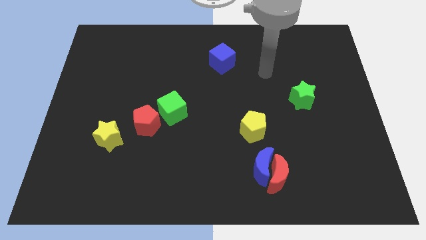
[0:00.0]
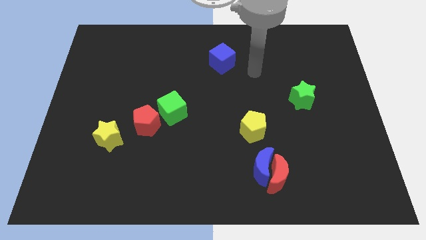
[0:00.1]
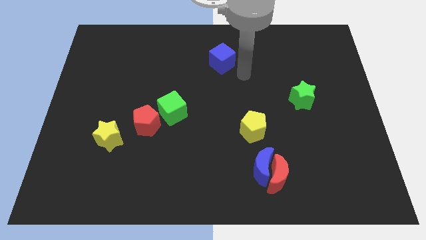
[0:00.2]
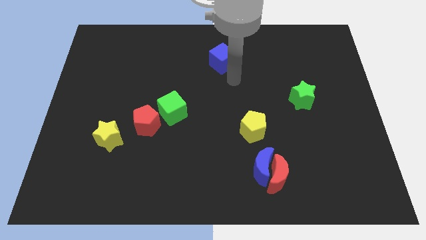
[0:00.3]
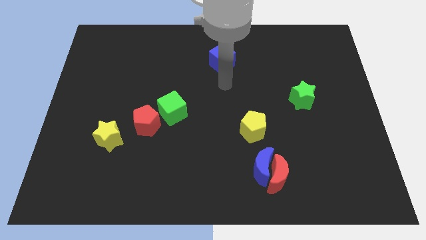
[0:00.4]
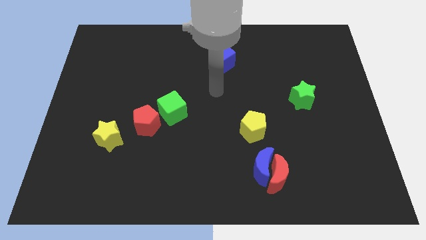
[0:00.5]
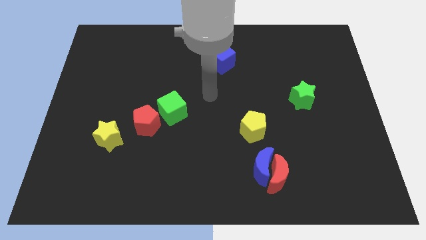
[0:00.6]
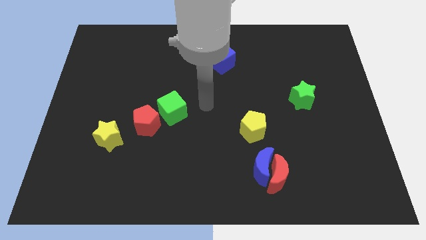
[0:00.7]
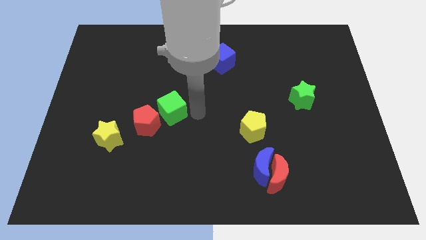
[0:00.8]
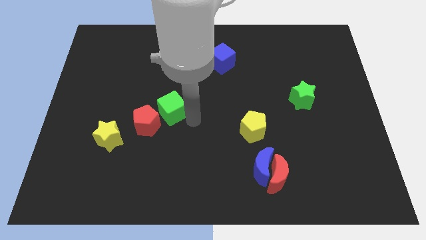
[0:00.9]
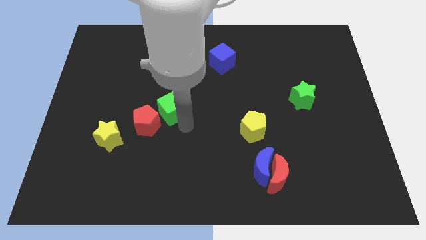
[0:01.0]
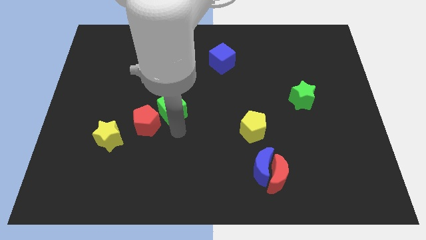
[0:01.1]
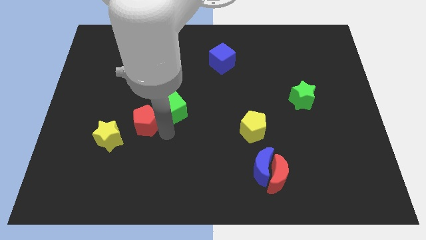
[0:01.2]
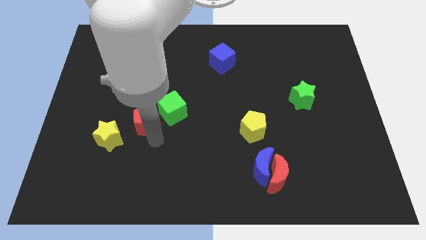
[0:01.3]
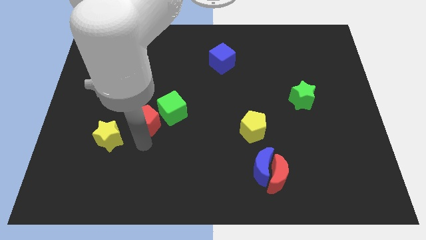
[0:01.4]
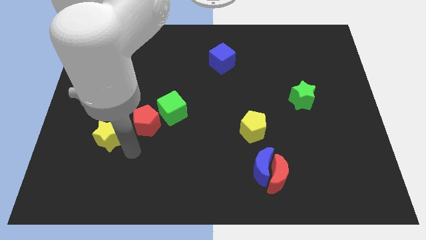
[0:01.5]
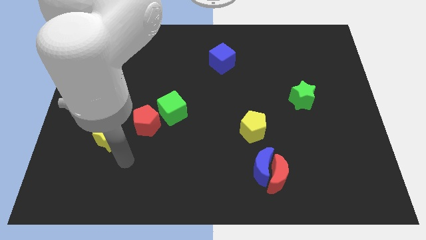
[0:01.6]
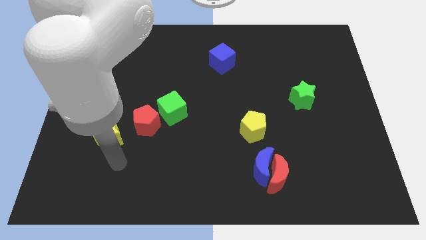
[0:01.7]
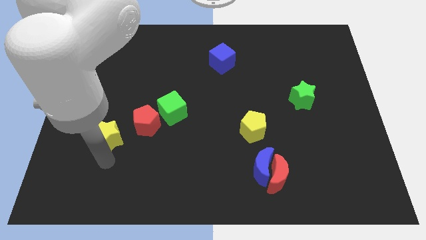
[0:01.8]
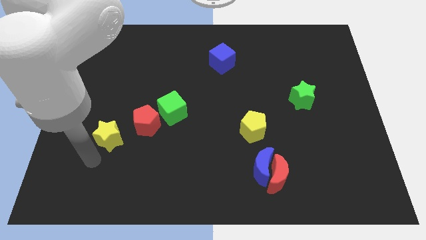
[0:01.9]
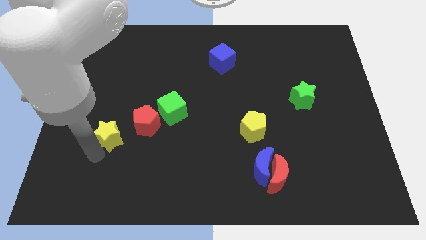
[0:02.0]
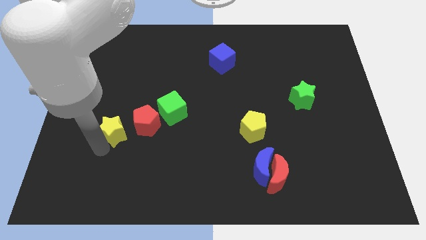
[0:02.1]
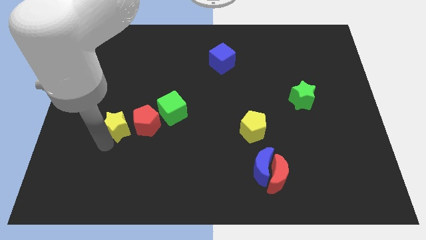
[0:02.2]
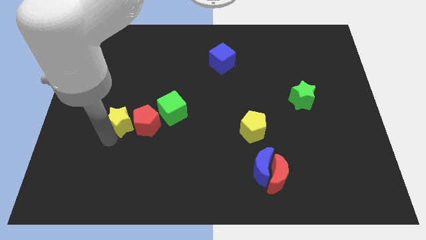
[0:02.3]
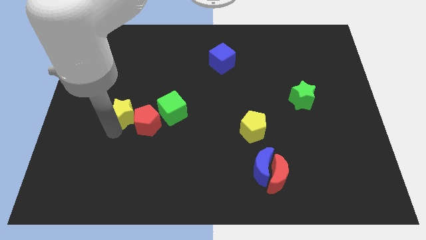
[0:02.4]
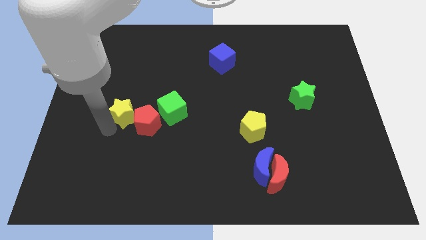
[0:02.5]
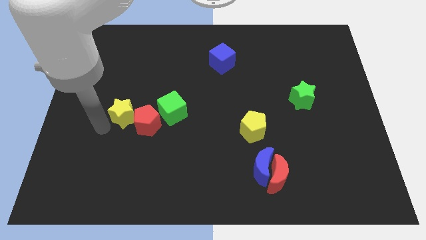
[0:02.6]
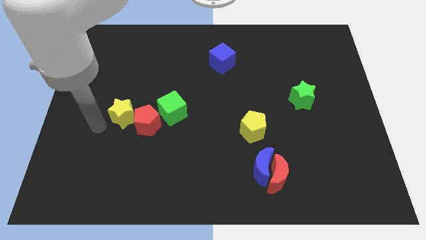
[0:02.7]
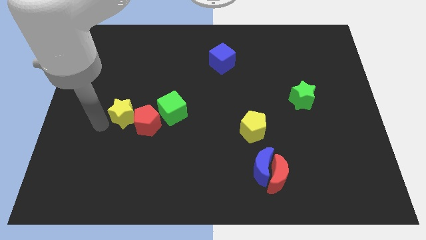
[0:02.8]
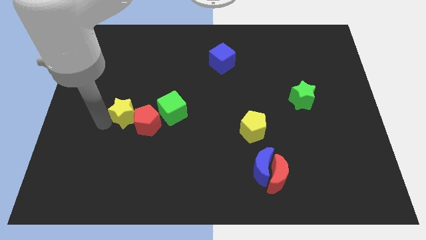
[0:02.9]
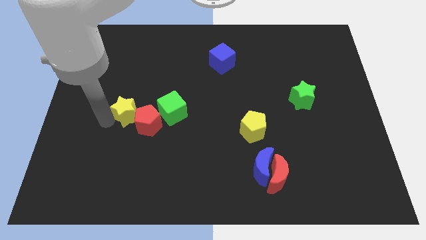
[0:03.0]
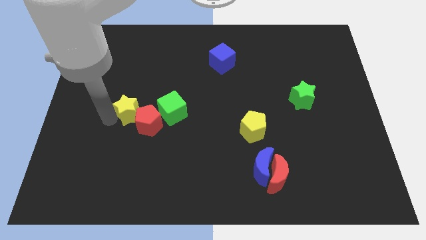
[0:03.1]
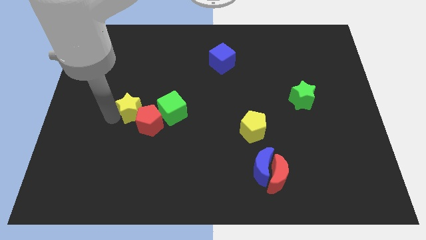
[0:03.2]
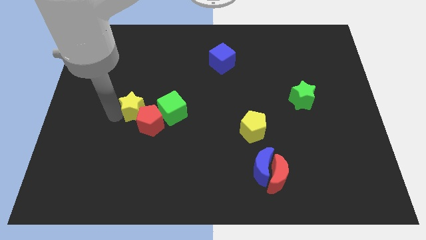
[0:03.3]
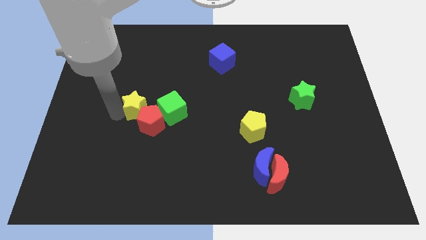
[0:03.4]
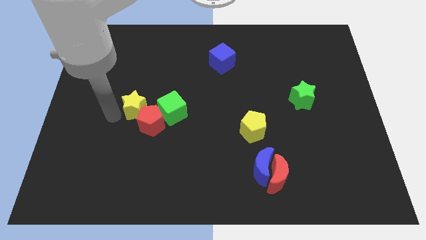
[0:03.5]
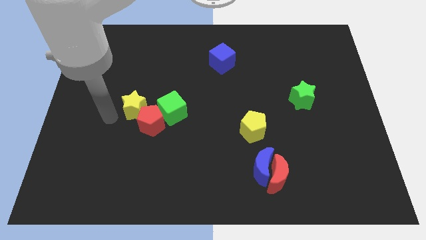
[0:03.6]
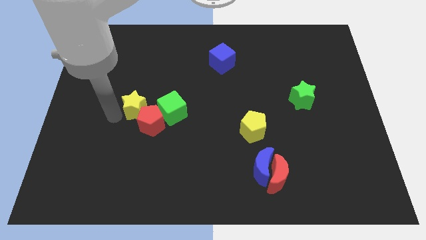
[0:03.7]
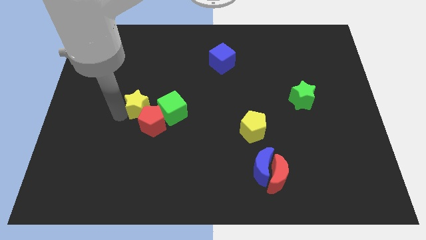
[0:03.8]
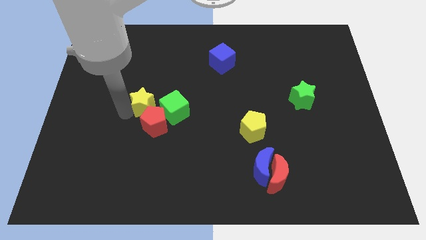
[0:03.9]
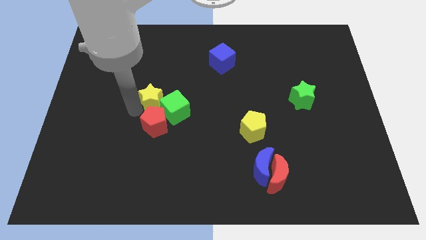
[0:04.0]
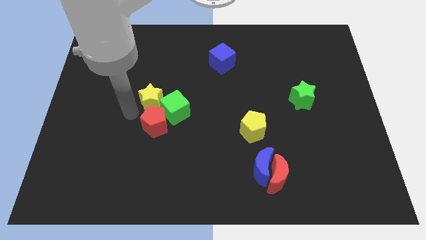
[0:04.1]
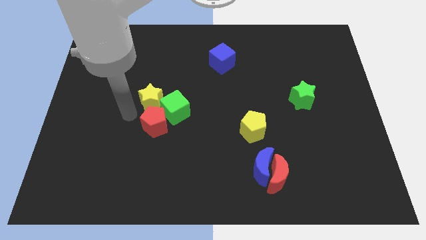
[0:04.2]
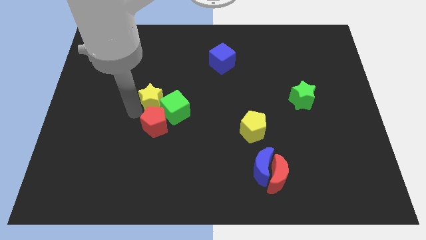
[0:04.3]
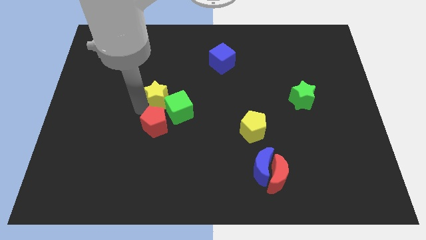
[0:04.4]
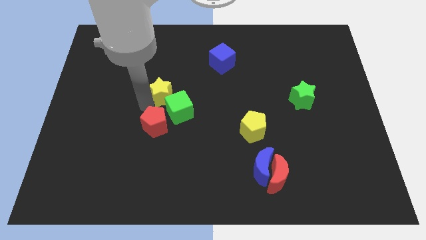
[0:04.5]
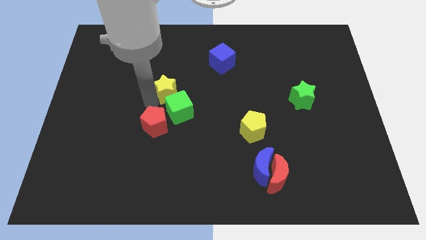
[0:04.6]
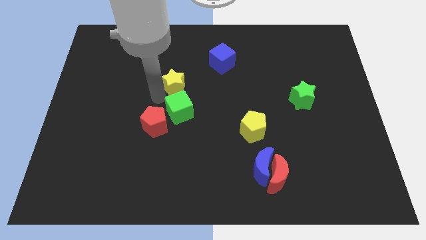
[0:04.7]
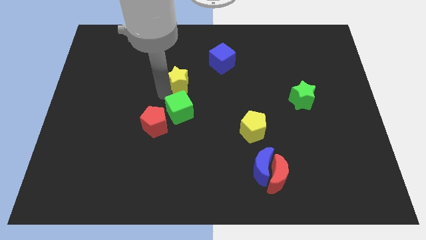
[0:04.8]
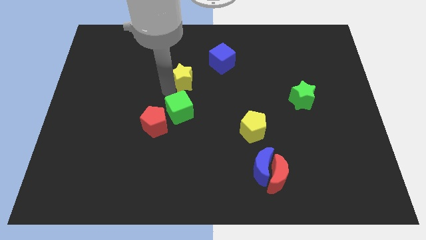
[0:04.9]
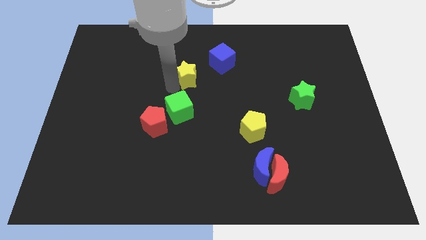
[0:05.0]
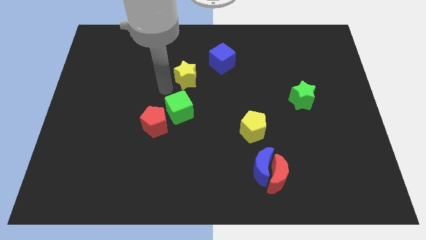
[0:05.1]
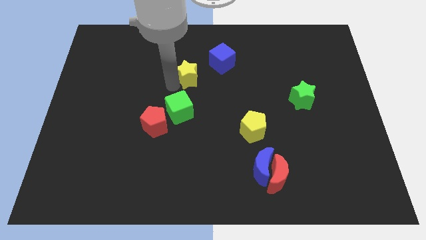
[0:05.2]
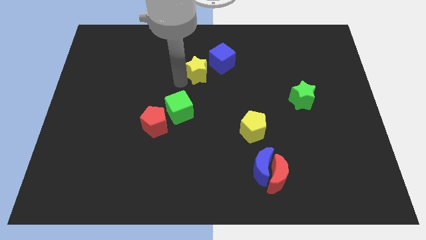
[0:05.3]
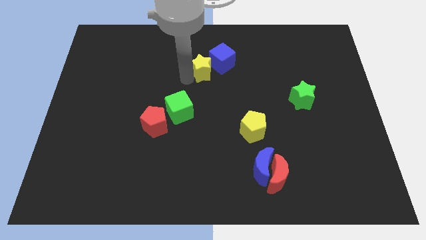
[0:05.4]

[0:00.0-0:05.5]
slide the yellow star towards the blue cube

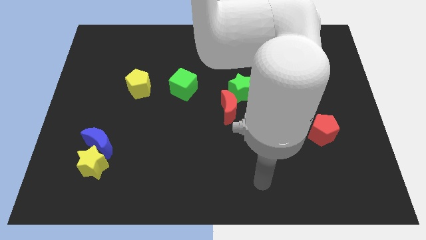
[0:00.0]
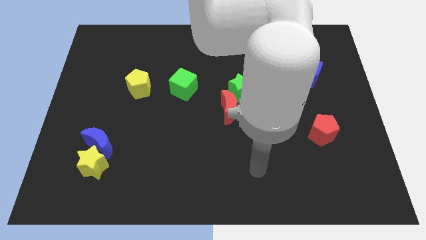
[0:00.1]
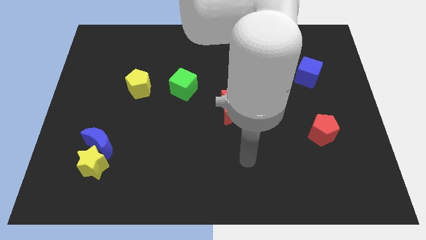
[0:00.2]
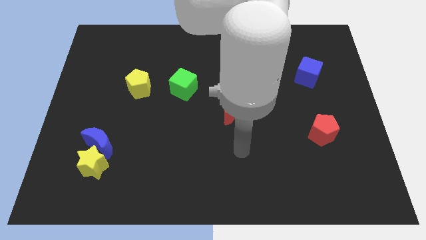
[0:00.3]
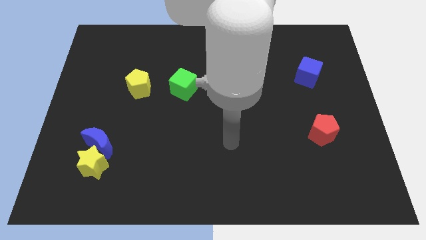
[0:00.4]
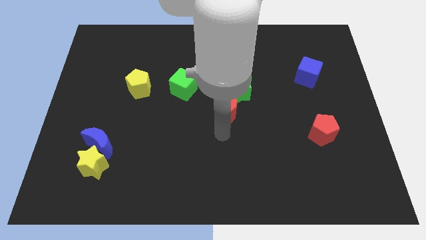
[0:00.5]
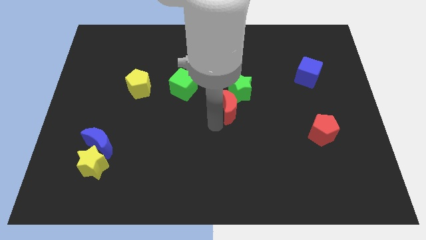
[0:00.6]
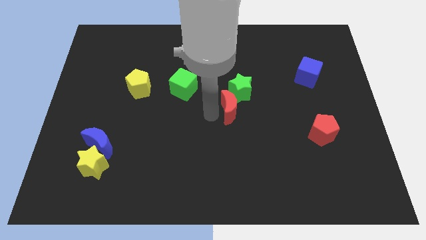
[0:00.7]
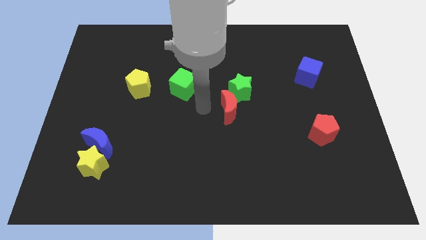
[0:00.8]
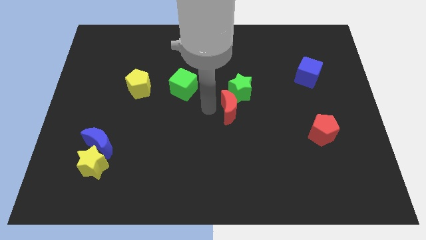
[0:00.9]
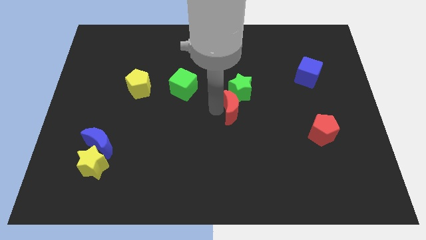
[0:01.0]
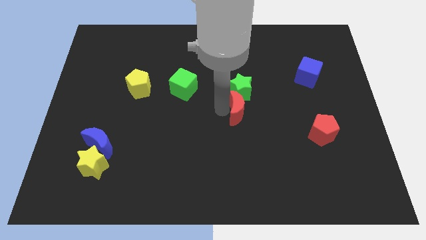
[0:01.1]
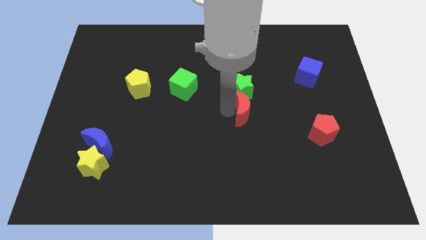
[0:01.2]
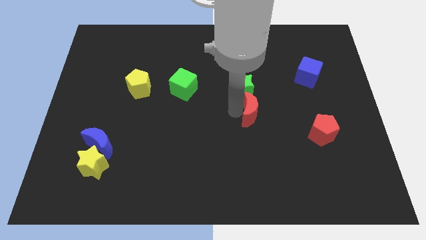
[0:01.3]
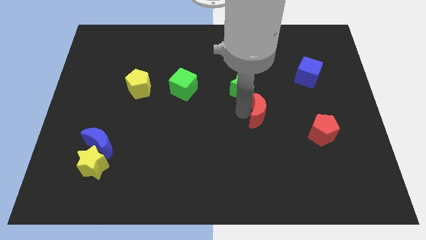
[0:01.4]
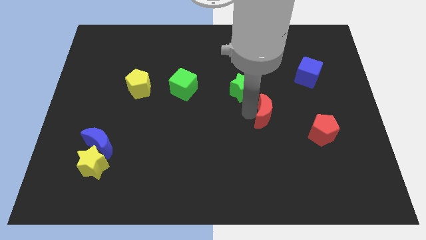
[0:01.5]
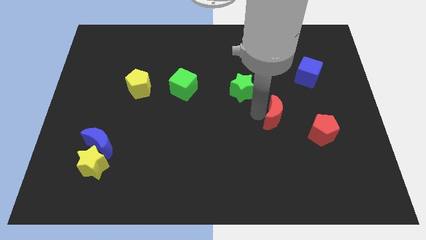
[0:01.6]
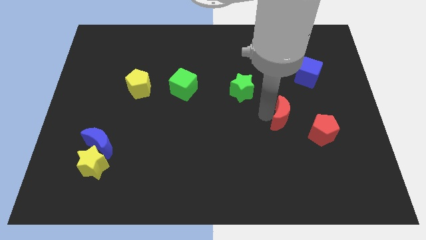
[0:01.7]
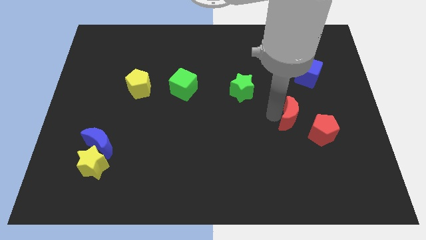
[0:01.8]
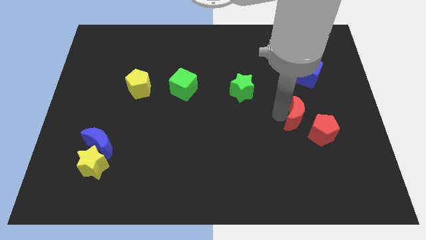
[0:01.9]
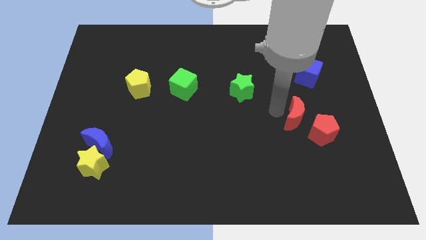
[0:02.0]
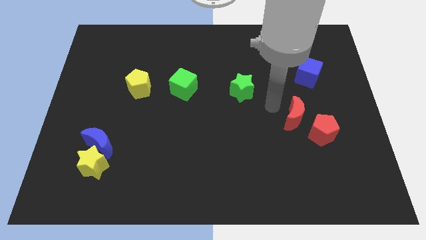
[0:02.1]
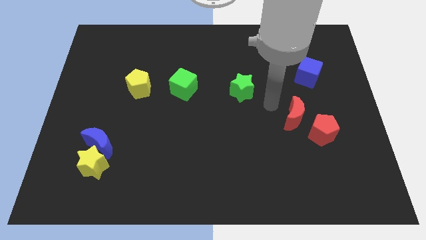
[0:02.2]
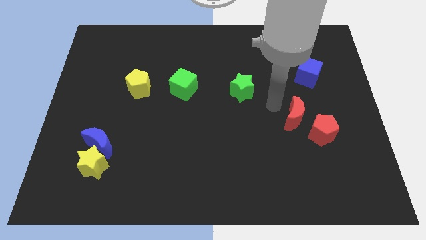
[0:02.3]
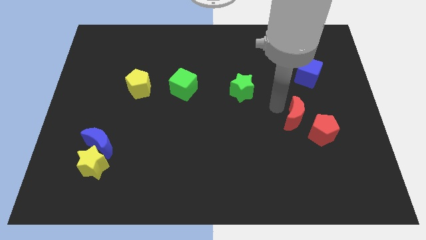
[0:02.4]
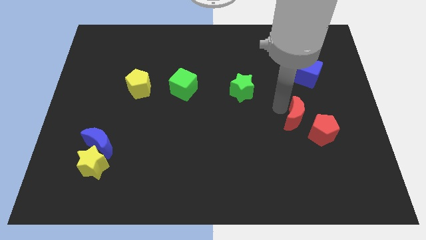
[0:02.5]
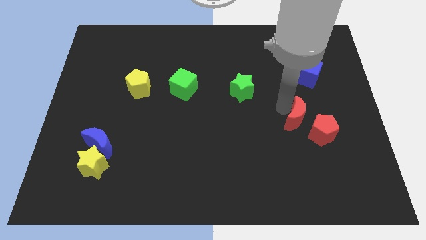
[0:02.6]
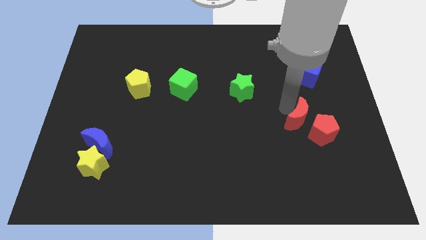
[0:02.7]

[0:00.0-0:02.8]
move the red moon towards the red pentagon
